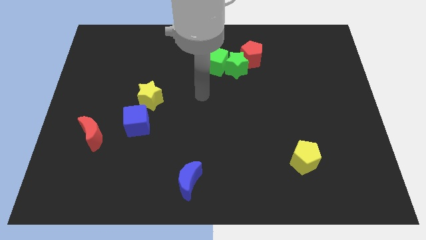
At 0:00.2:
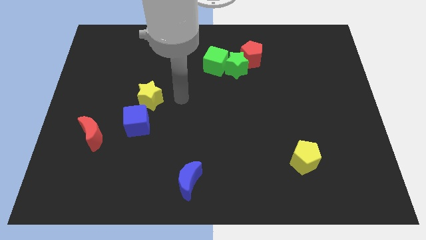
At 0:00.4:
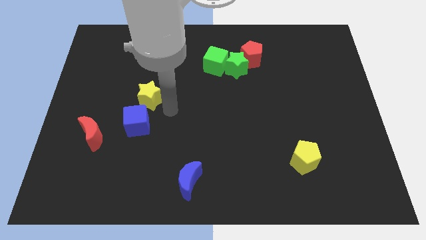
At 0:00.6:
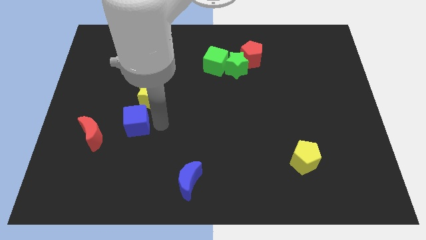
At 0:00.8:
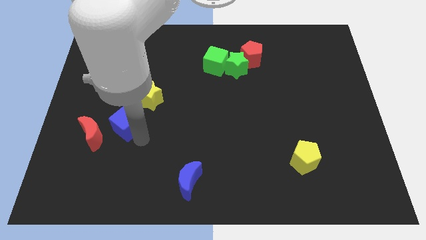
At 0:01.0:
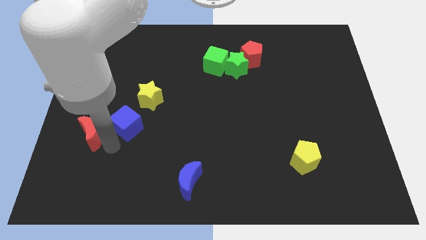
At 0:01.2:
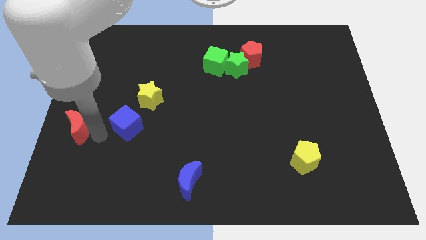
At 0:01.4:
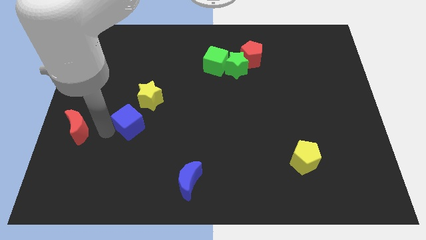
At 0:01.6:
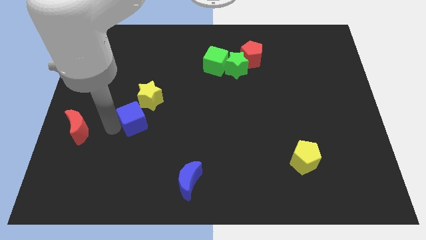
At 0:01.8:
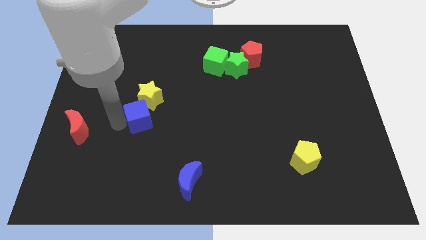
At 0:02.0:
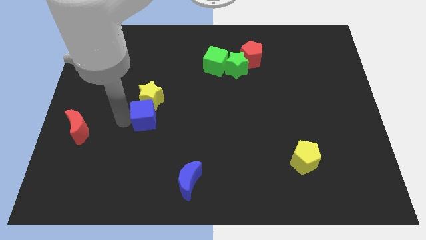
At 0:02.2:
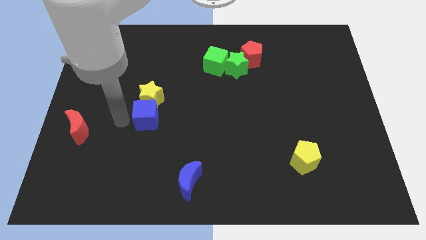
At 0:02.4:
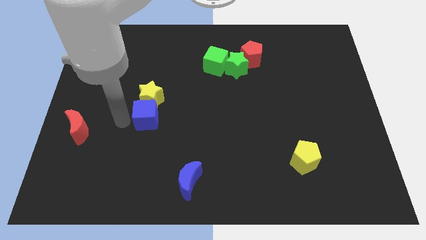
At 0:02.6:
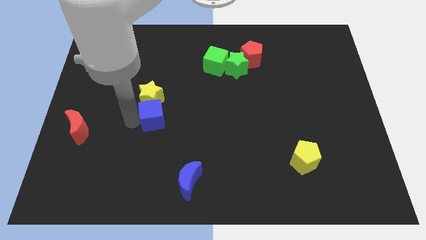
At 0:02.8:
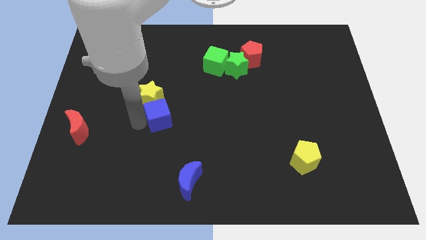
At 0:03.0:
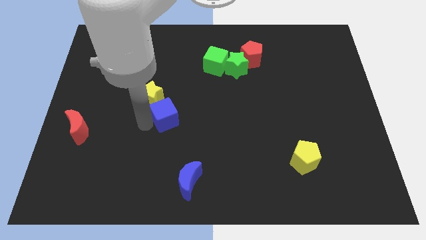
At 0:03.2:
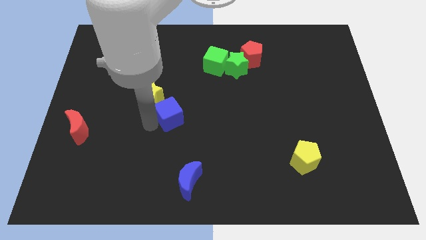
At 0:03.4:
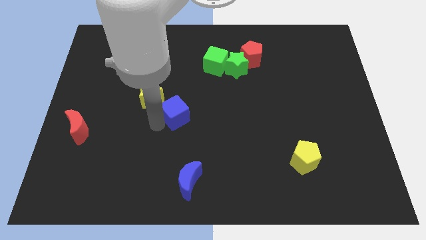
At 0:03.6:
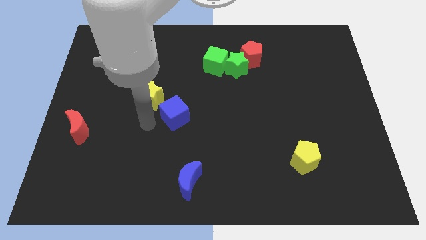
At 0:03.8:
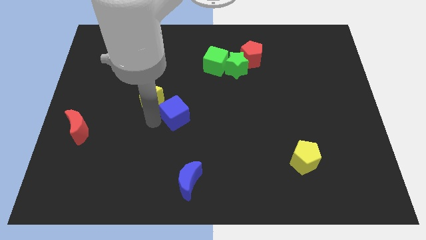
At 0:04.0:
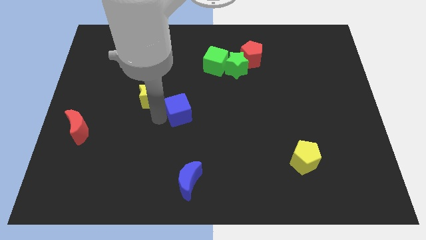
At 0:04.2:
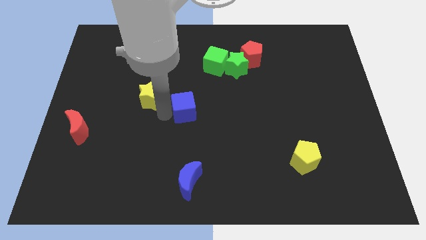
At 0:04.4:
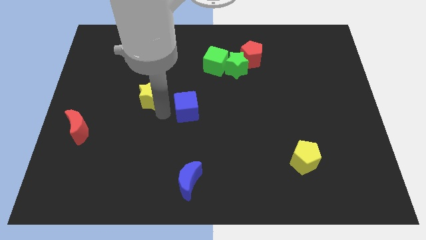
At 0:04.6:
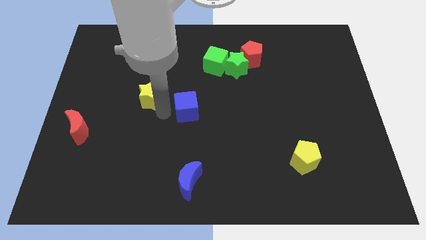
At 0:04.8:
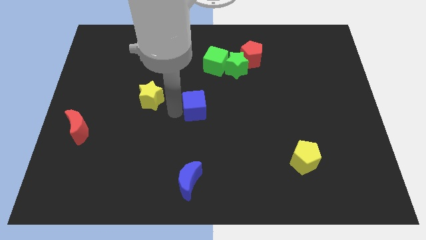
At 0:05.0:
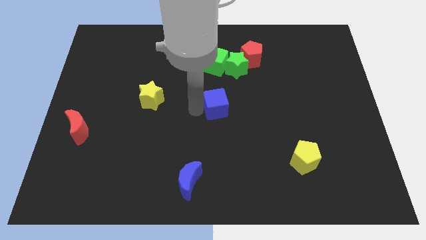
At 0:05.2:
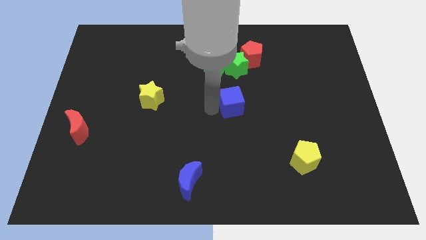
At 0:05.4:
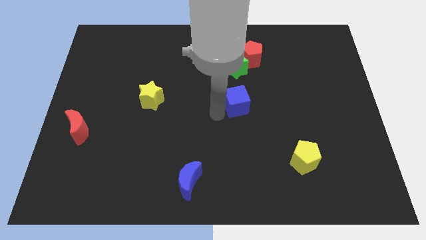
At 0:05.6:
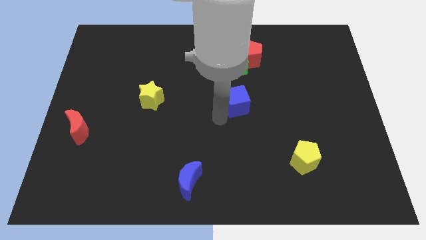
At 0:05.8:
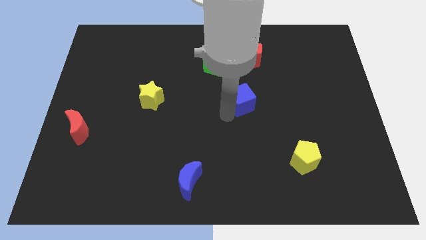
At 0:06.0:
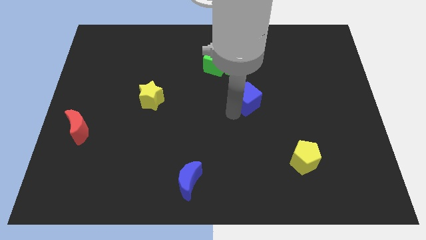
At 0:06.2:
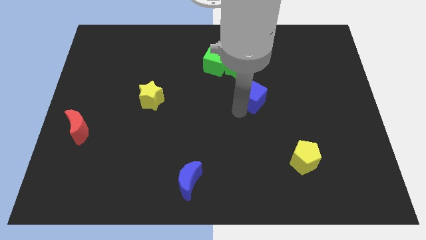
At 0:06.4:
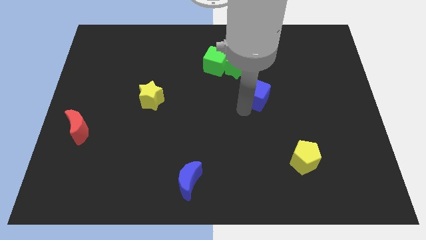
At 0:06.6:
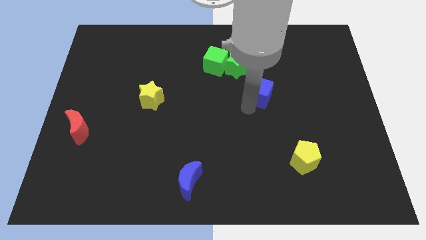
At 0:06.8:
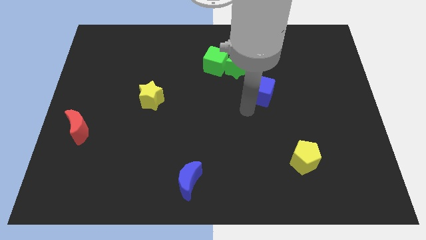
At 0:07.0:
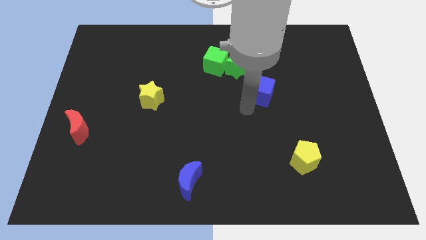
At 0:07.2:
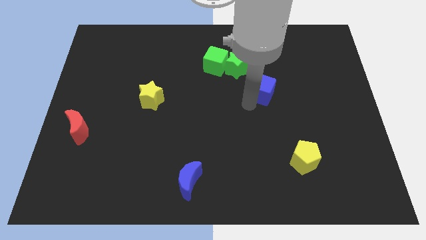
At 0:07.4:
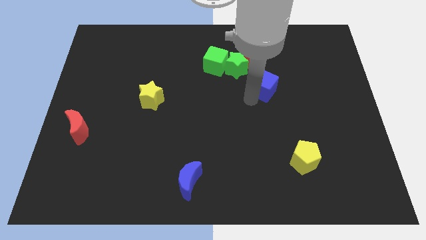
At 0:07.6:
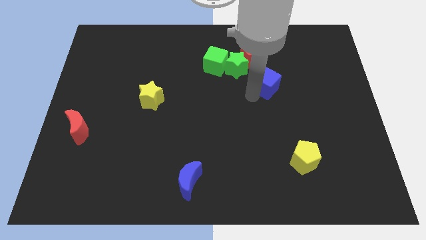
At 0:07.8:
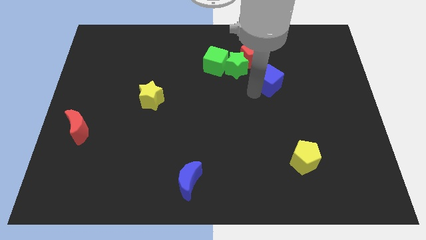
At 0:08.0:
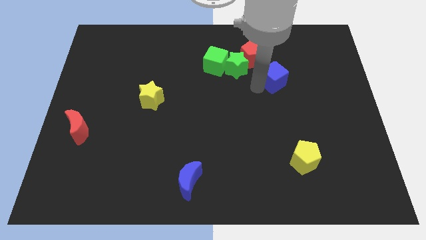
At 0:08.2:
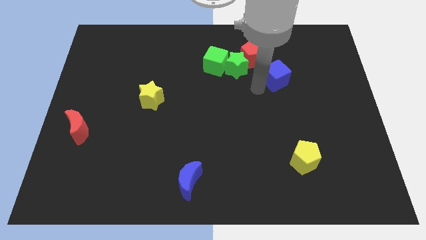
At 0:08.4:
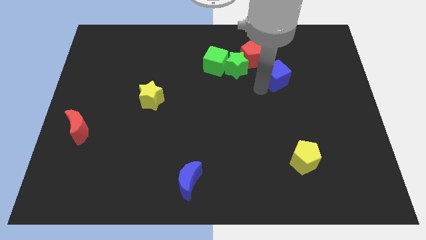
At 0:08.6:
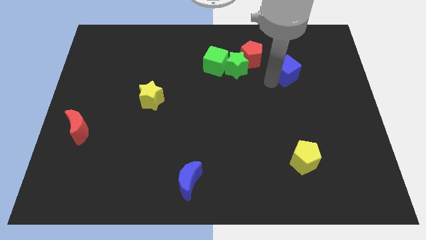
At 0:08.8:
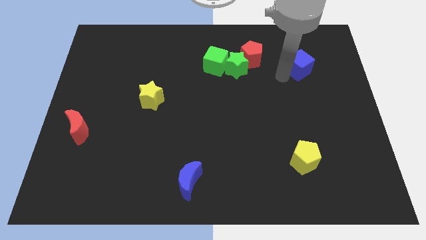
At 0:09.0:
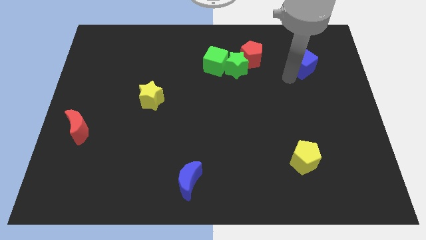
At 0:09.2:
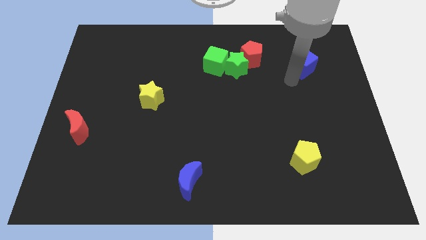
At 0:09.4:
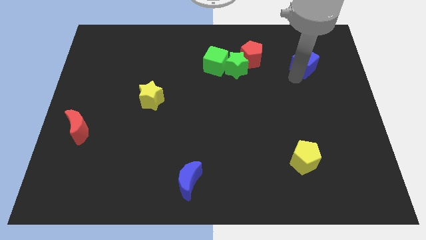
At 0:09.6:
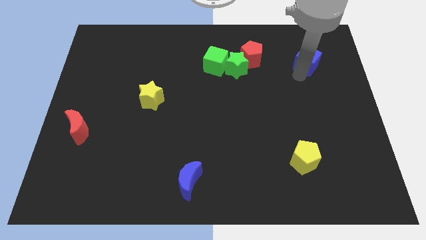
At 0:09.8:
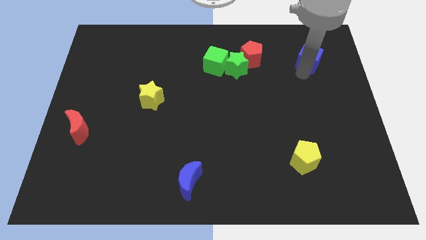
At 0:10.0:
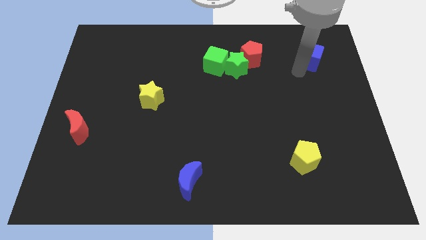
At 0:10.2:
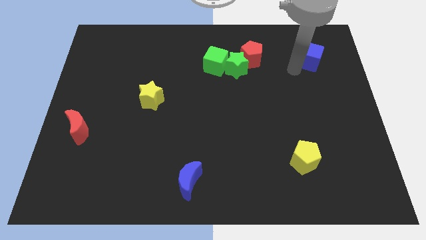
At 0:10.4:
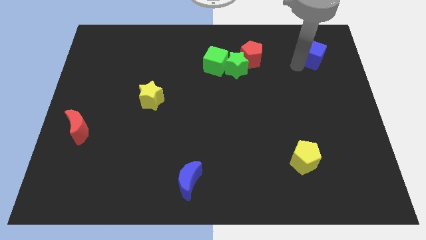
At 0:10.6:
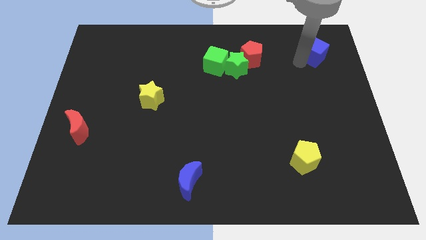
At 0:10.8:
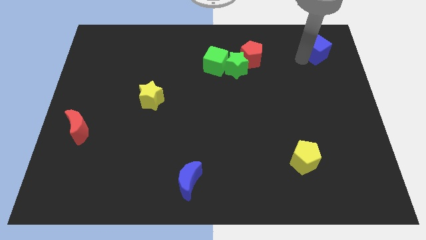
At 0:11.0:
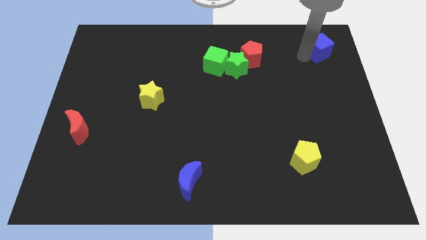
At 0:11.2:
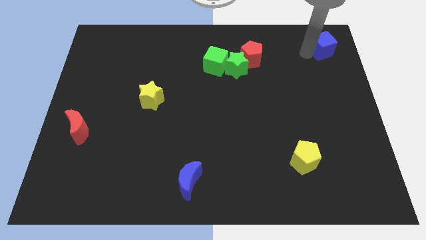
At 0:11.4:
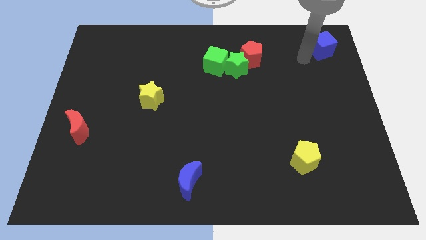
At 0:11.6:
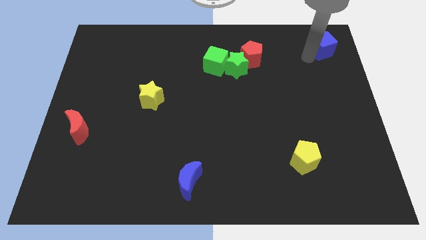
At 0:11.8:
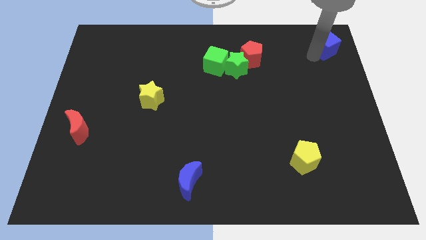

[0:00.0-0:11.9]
push the blue cube to the upper right corner

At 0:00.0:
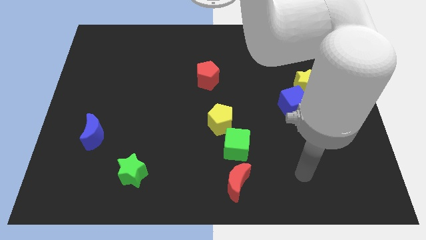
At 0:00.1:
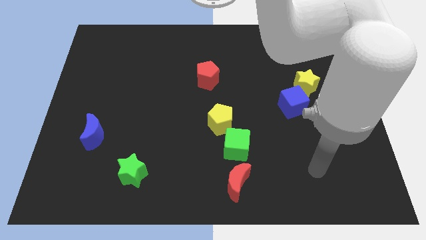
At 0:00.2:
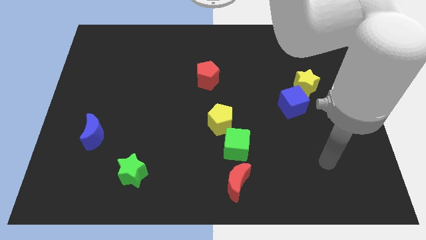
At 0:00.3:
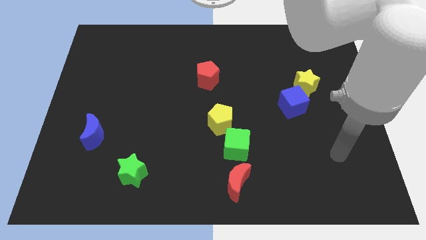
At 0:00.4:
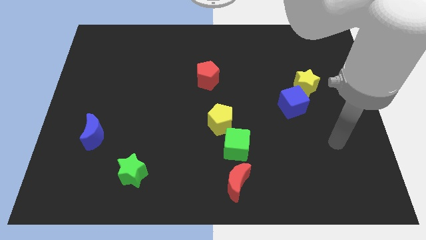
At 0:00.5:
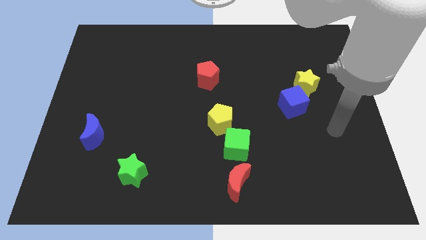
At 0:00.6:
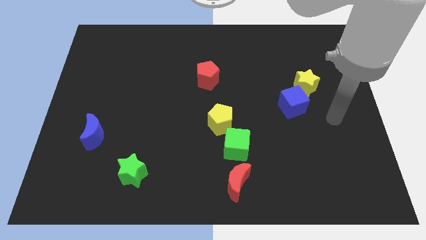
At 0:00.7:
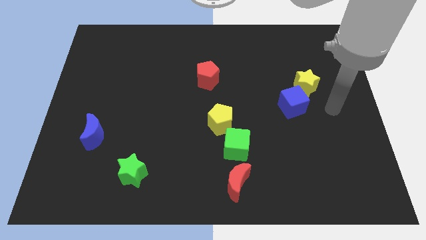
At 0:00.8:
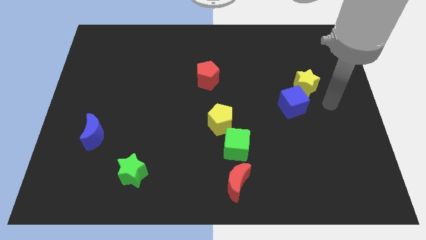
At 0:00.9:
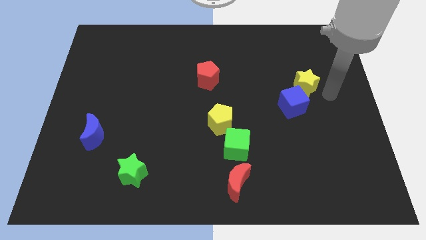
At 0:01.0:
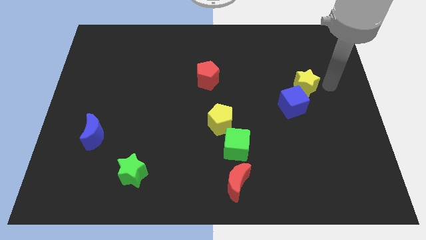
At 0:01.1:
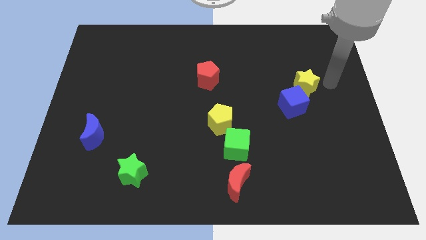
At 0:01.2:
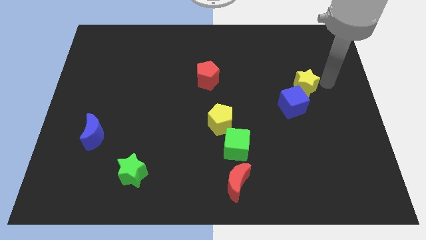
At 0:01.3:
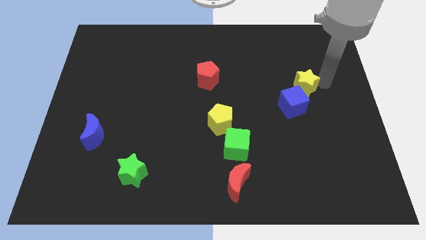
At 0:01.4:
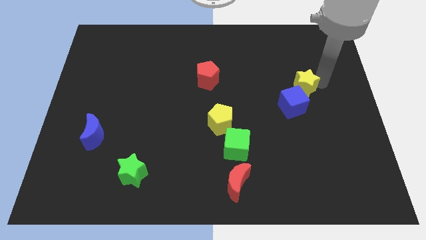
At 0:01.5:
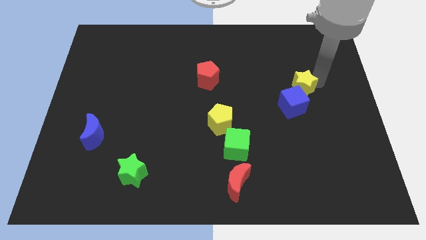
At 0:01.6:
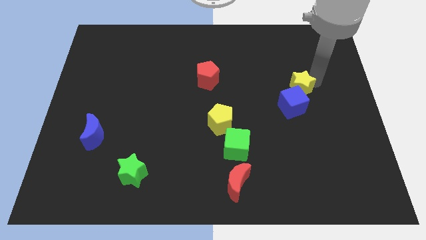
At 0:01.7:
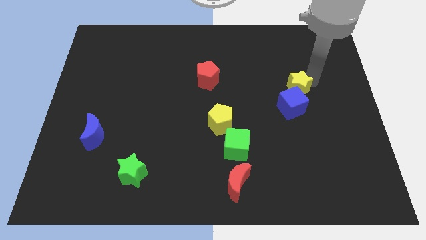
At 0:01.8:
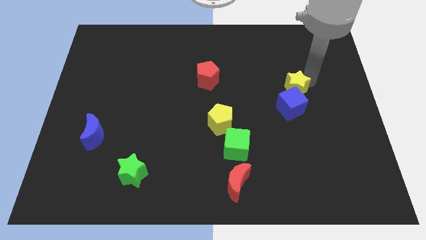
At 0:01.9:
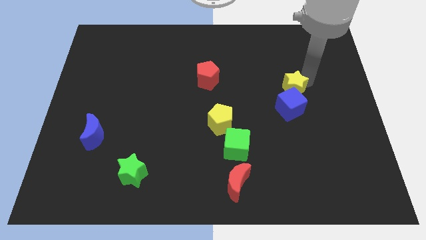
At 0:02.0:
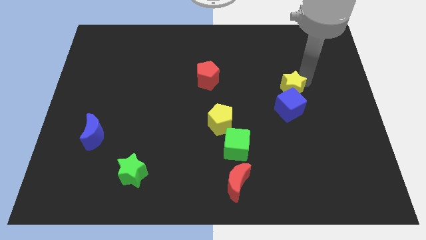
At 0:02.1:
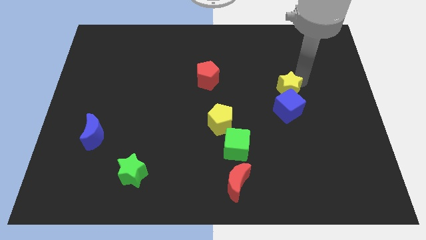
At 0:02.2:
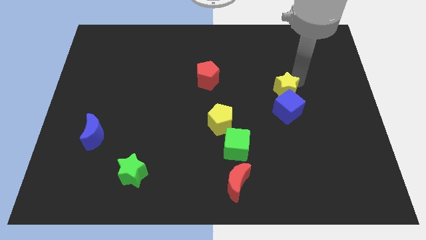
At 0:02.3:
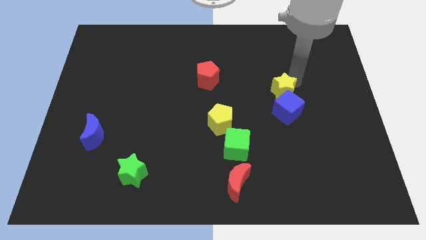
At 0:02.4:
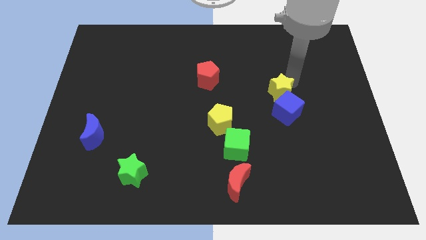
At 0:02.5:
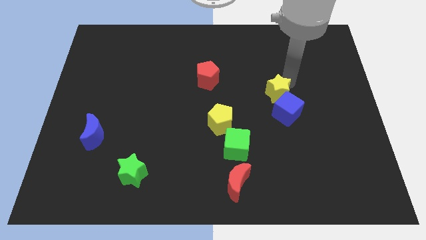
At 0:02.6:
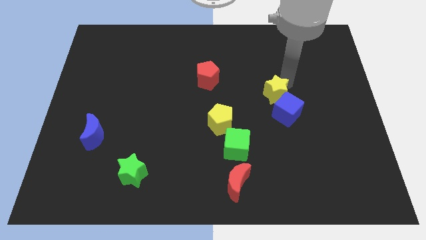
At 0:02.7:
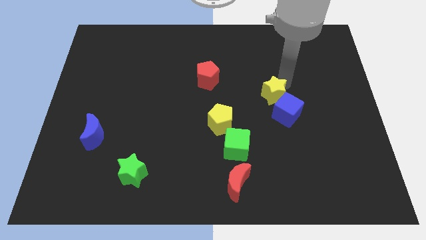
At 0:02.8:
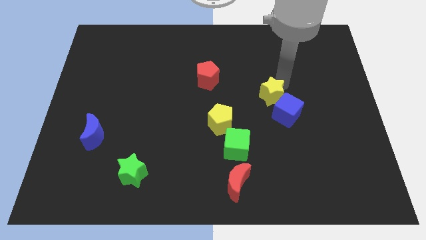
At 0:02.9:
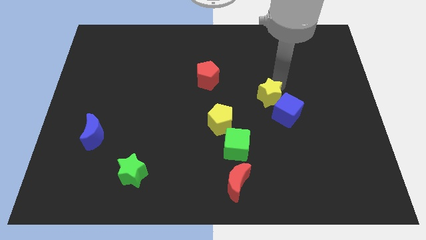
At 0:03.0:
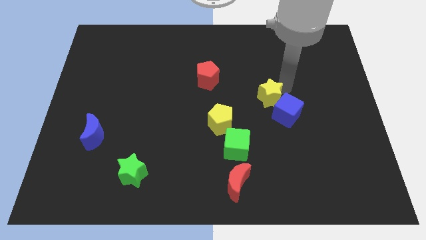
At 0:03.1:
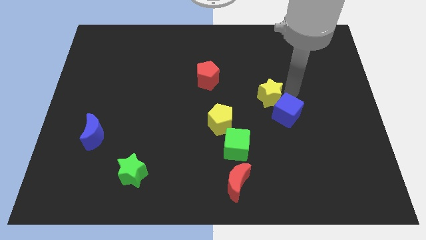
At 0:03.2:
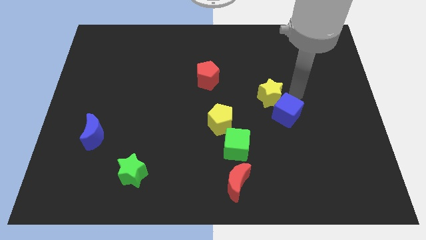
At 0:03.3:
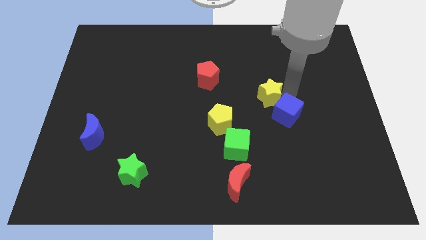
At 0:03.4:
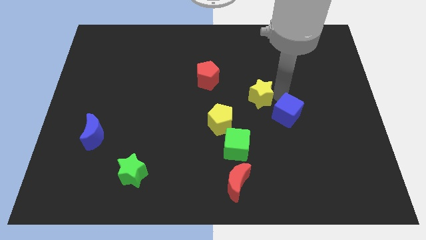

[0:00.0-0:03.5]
put the yellow star to the middle of the board
